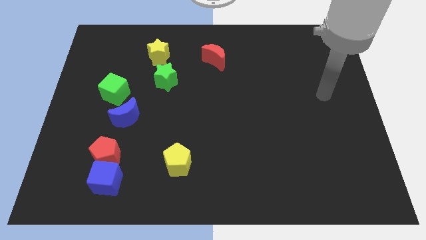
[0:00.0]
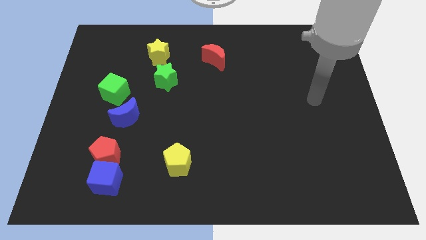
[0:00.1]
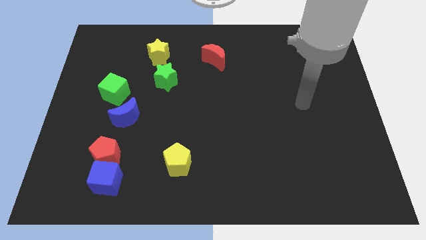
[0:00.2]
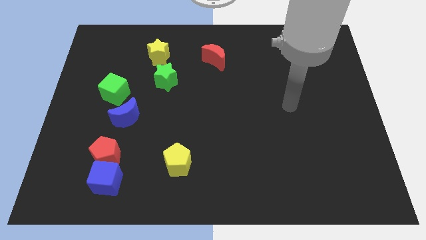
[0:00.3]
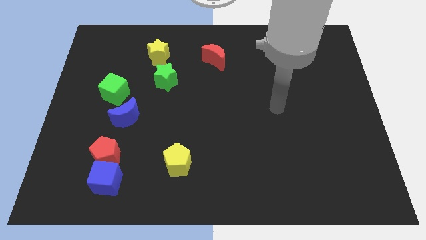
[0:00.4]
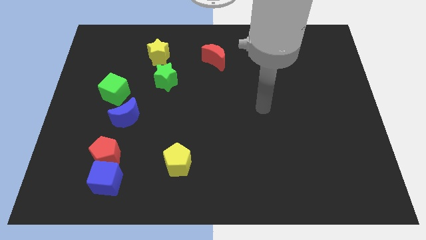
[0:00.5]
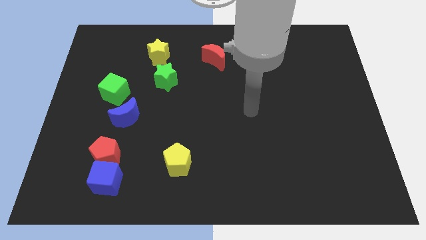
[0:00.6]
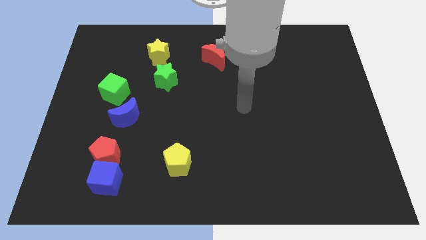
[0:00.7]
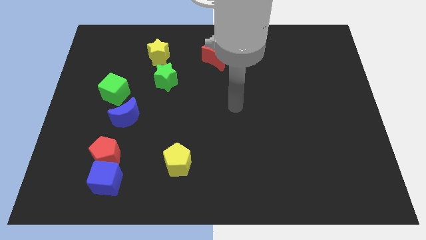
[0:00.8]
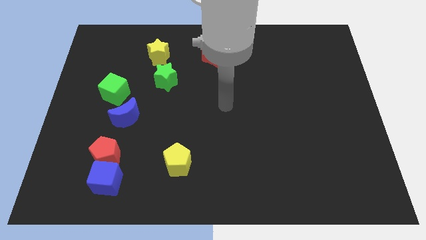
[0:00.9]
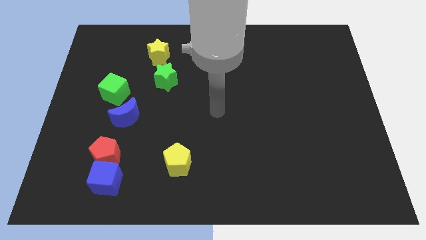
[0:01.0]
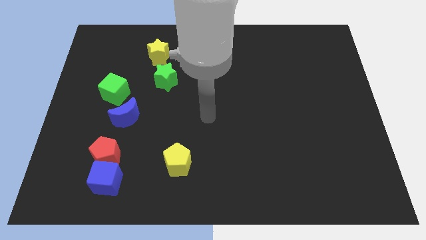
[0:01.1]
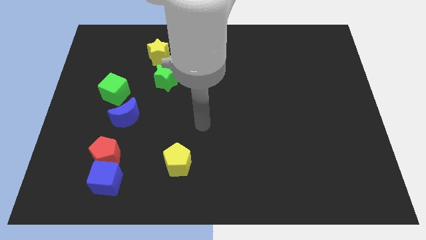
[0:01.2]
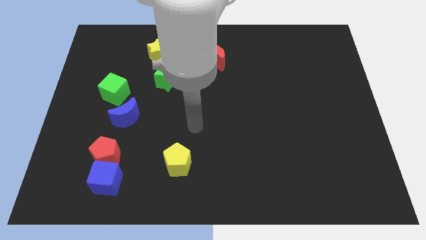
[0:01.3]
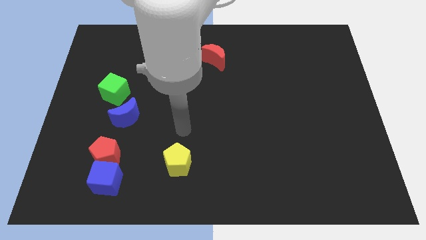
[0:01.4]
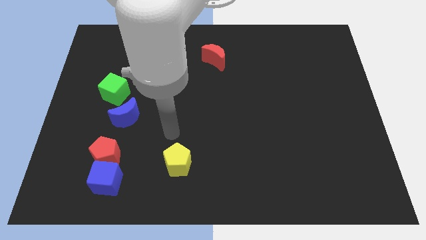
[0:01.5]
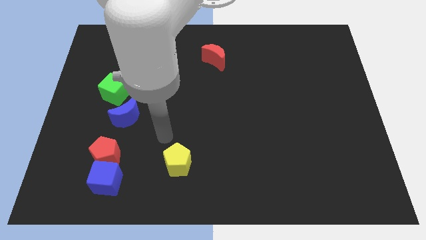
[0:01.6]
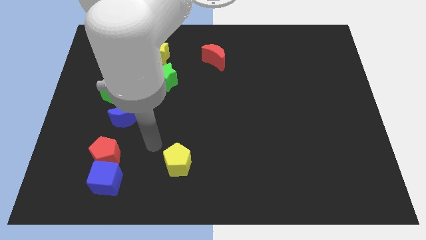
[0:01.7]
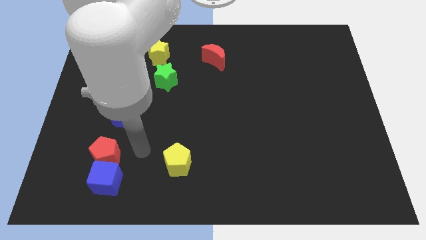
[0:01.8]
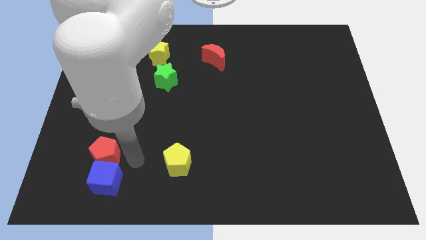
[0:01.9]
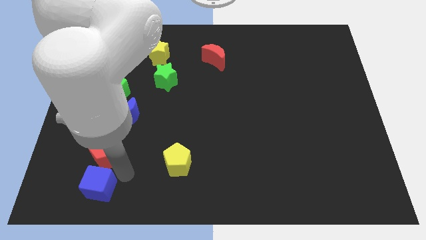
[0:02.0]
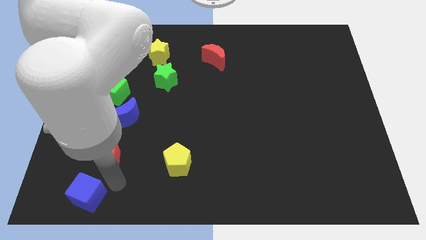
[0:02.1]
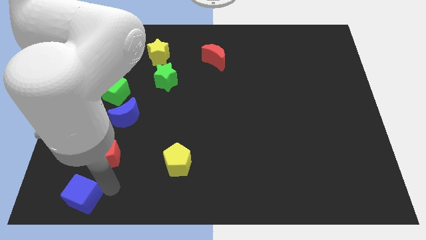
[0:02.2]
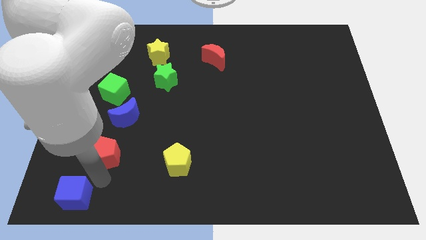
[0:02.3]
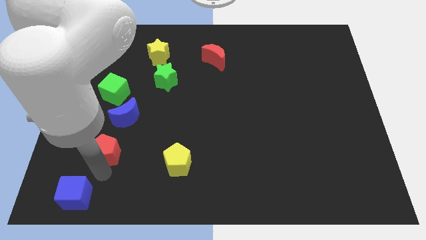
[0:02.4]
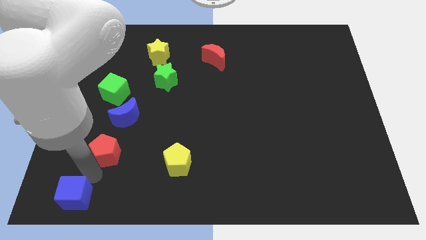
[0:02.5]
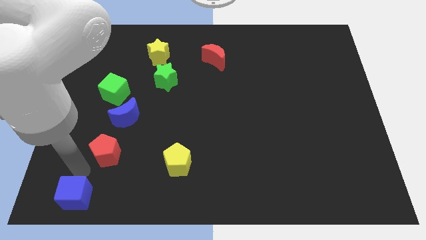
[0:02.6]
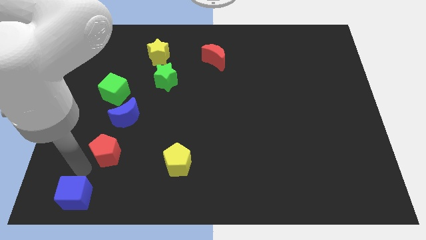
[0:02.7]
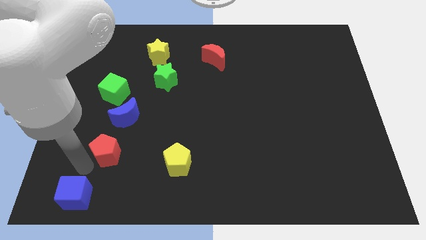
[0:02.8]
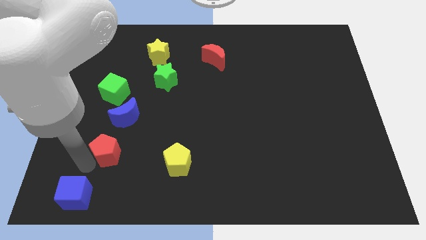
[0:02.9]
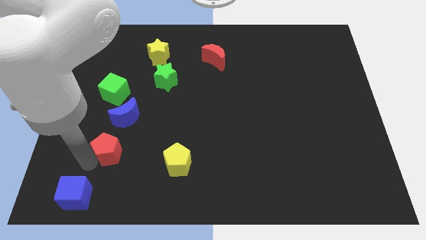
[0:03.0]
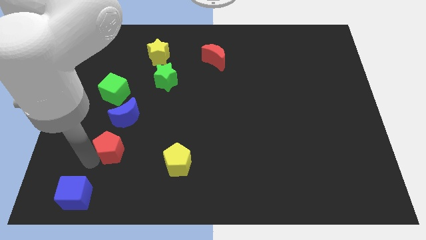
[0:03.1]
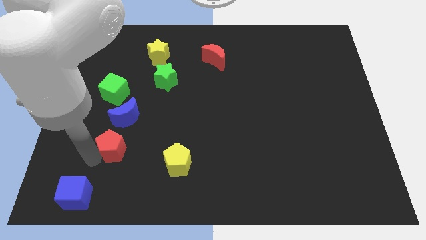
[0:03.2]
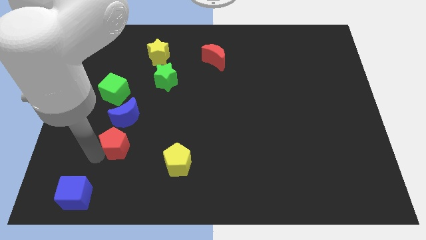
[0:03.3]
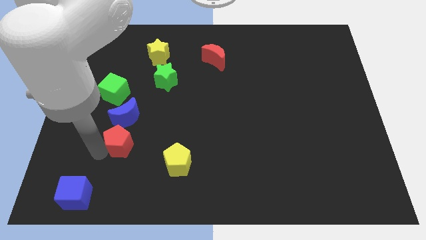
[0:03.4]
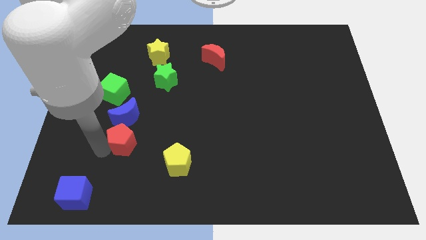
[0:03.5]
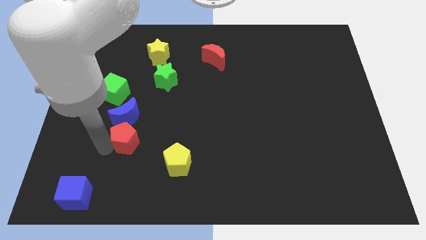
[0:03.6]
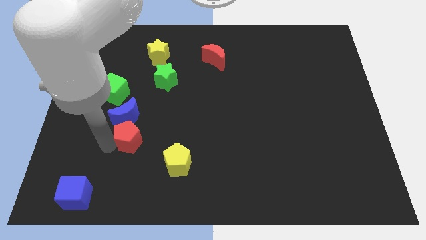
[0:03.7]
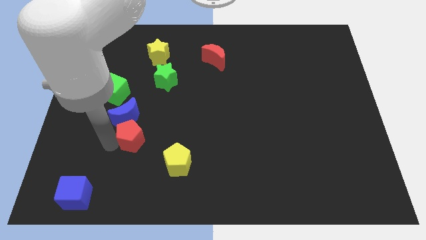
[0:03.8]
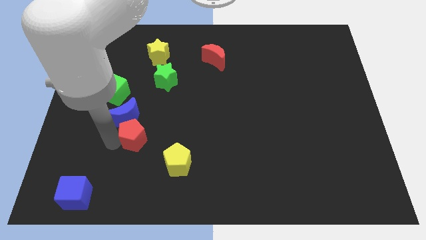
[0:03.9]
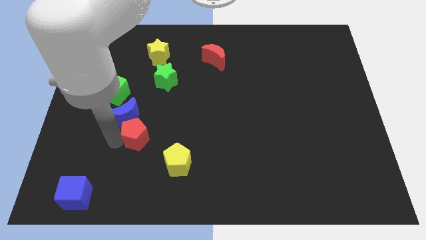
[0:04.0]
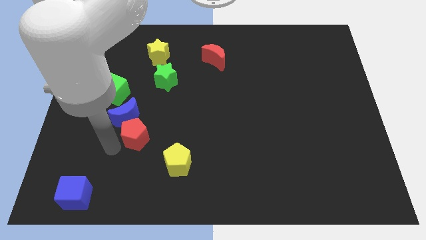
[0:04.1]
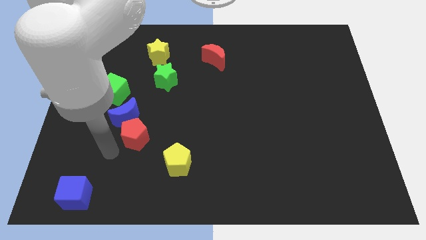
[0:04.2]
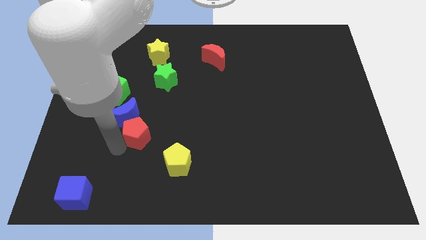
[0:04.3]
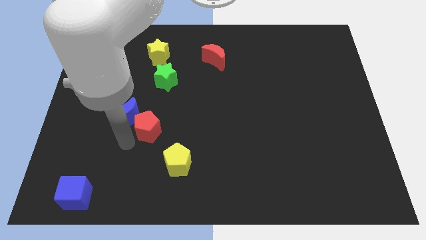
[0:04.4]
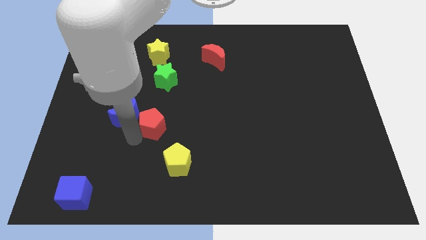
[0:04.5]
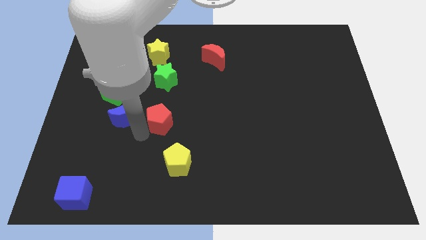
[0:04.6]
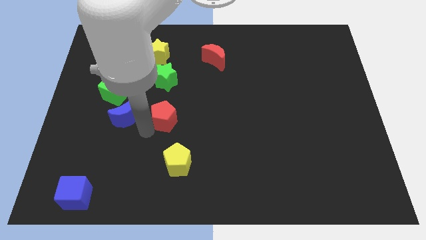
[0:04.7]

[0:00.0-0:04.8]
slide the red pentagon to the center of the board

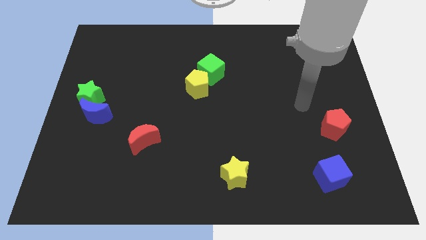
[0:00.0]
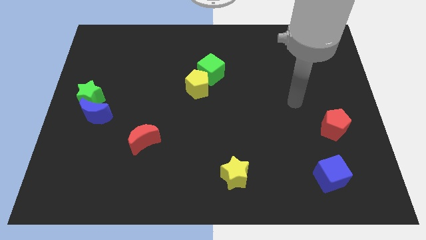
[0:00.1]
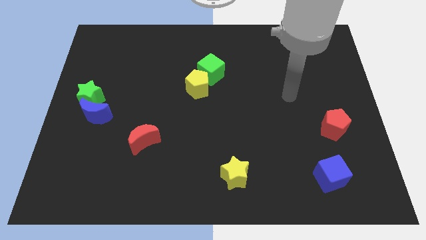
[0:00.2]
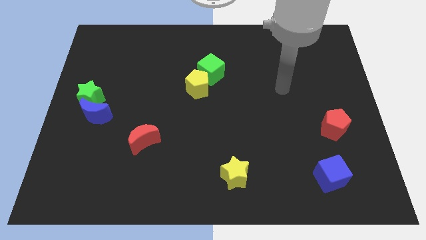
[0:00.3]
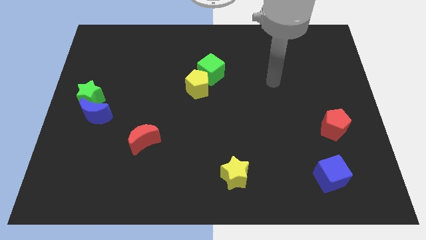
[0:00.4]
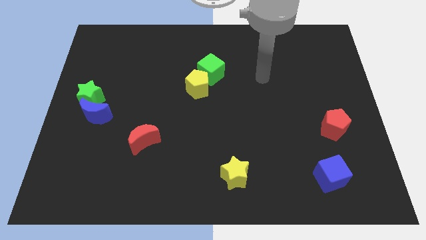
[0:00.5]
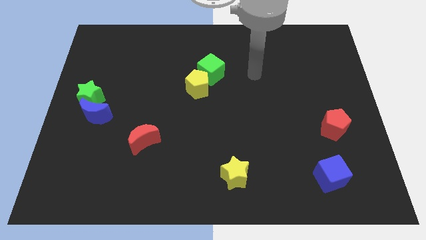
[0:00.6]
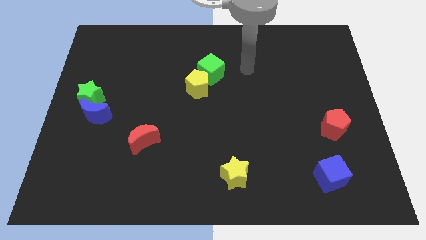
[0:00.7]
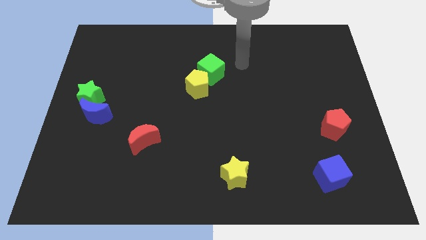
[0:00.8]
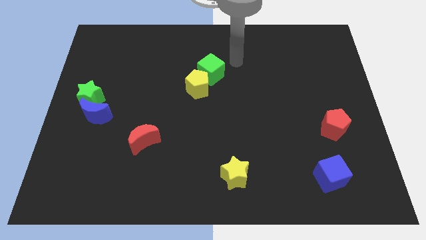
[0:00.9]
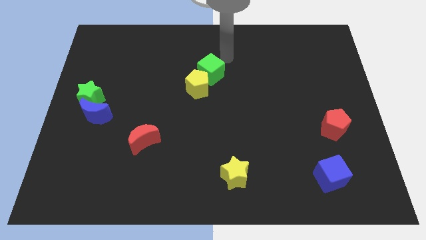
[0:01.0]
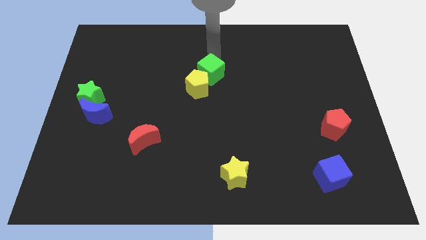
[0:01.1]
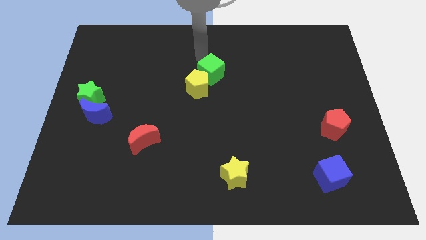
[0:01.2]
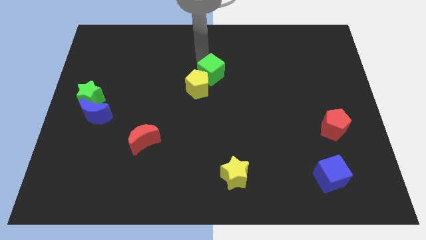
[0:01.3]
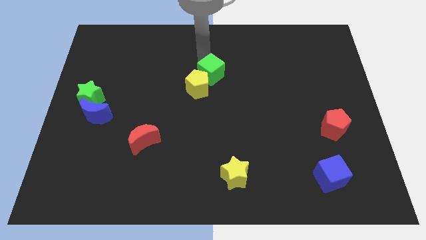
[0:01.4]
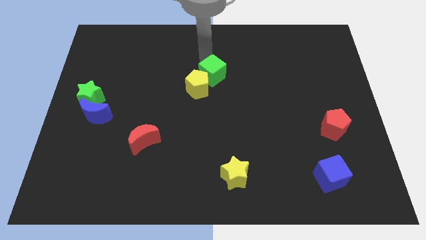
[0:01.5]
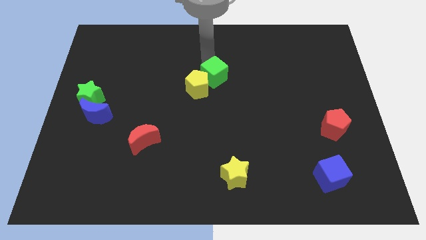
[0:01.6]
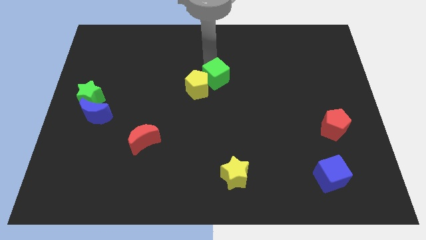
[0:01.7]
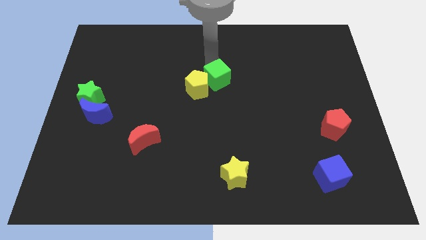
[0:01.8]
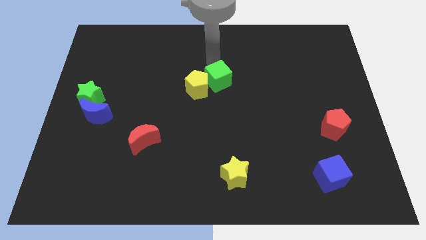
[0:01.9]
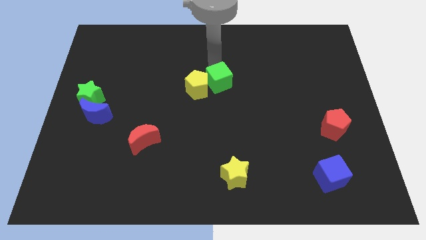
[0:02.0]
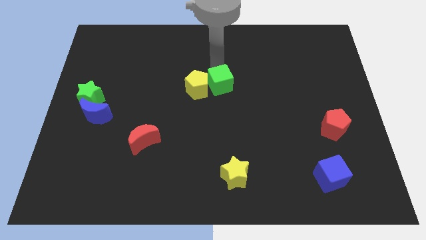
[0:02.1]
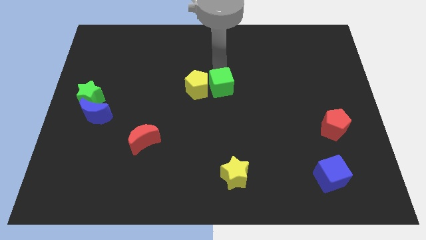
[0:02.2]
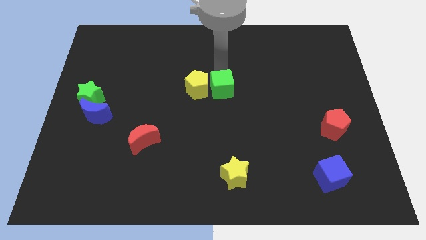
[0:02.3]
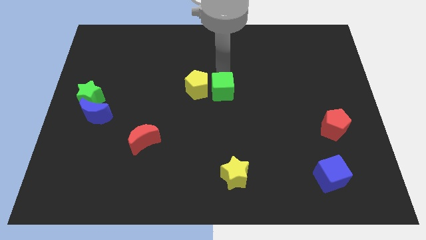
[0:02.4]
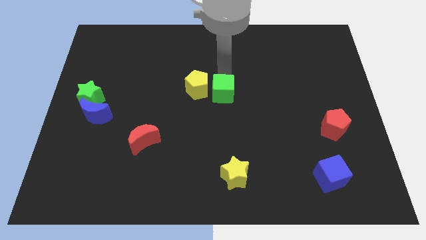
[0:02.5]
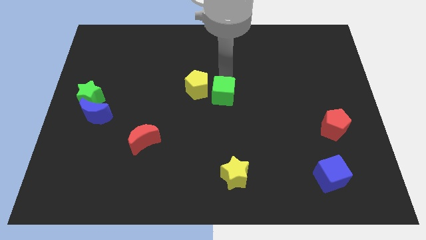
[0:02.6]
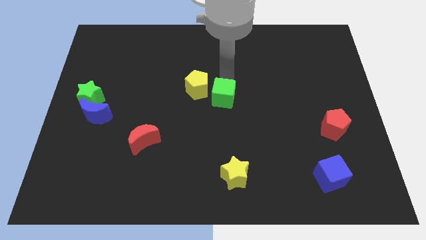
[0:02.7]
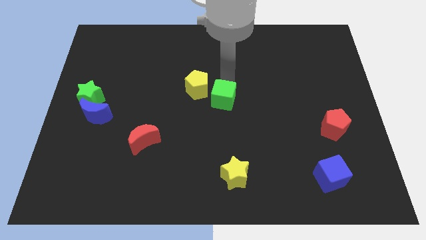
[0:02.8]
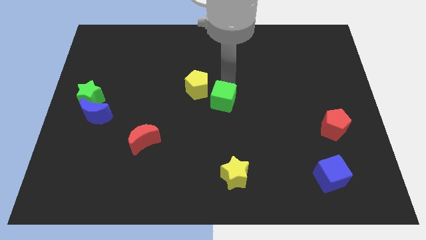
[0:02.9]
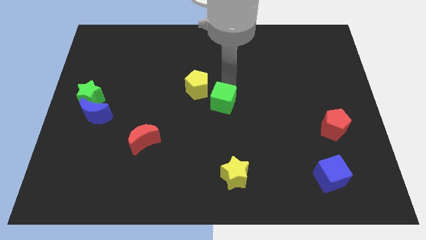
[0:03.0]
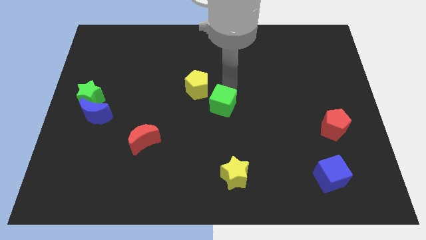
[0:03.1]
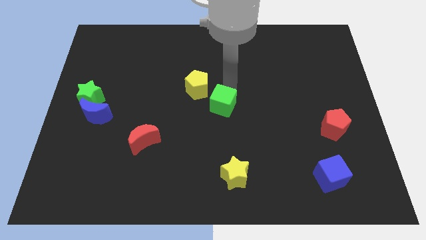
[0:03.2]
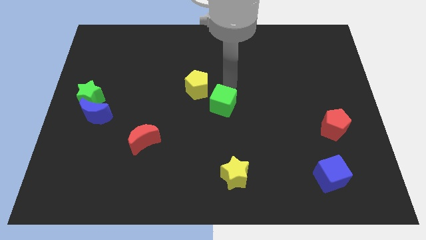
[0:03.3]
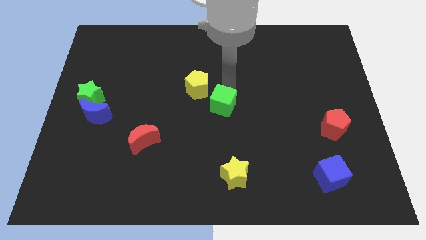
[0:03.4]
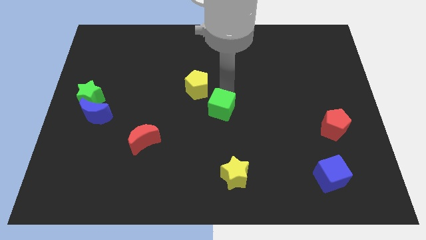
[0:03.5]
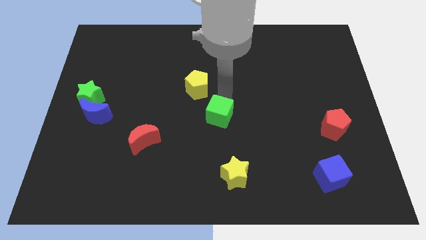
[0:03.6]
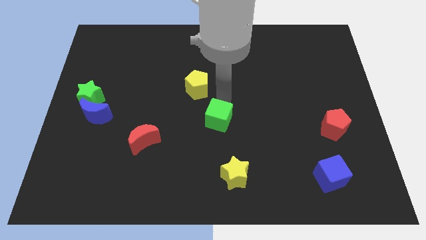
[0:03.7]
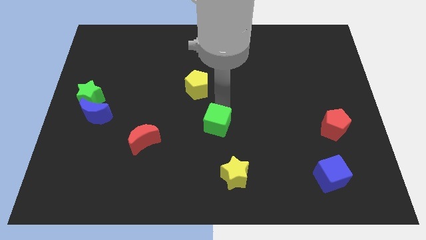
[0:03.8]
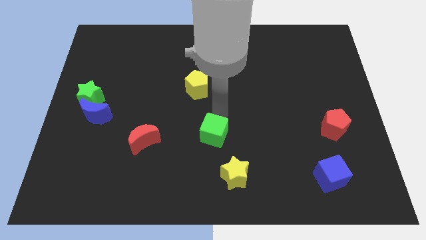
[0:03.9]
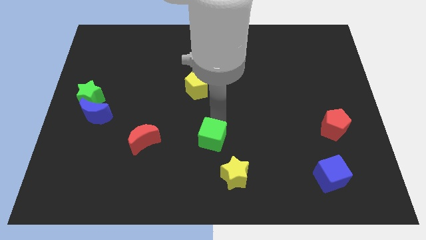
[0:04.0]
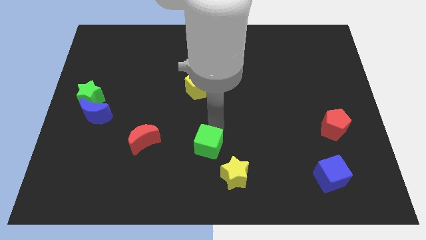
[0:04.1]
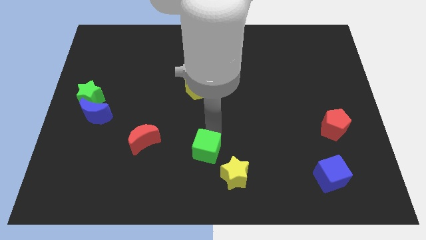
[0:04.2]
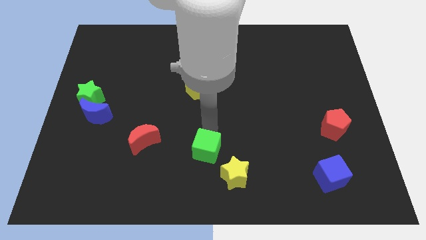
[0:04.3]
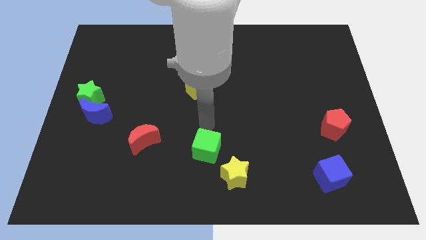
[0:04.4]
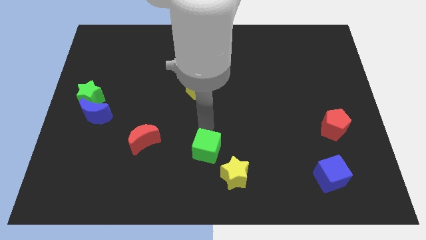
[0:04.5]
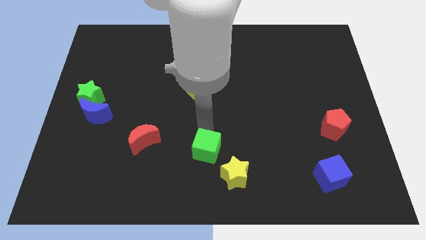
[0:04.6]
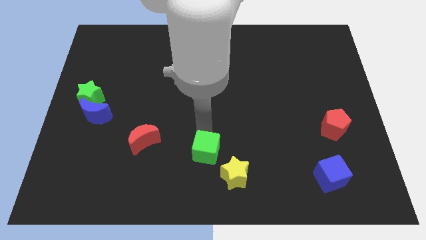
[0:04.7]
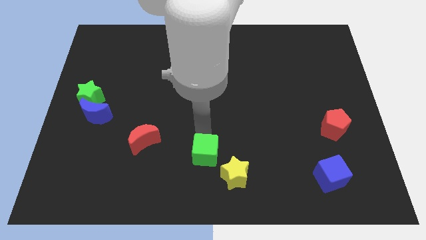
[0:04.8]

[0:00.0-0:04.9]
move the green cube to the bottom
